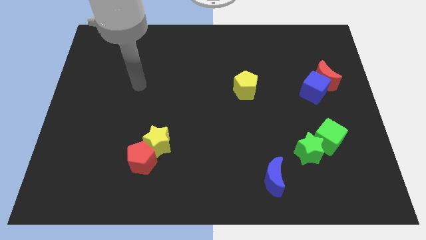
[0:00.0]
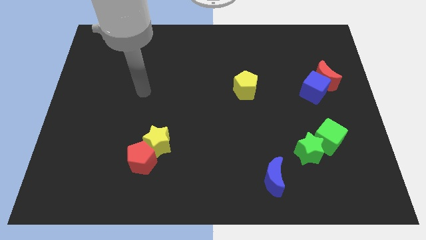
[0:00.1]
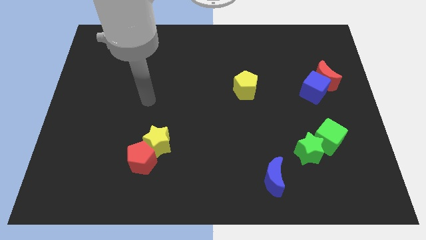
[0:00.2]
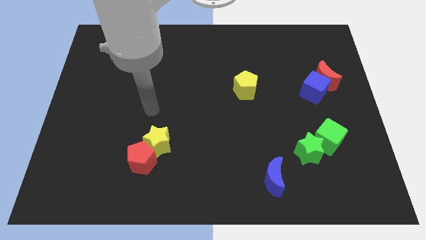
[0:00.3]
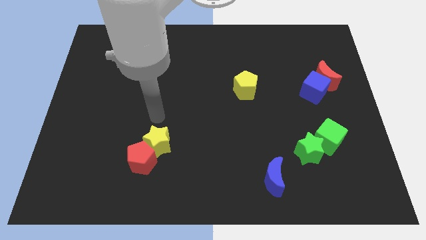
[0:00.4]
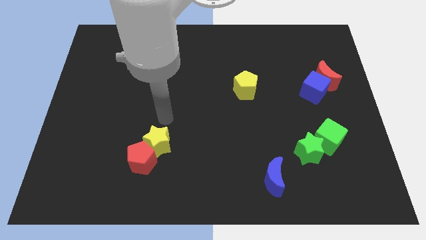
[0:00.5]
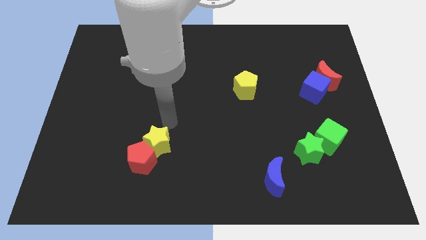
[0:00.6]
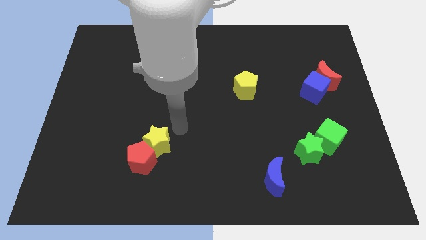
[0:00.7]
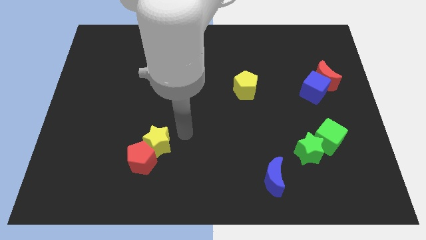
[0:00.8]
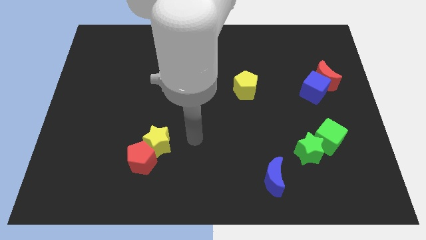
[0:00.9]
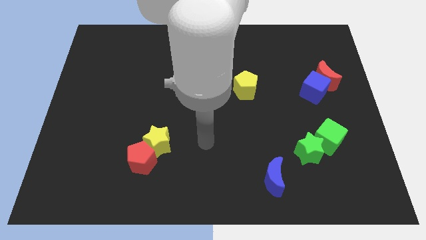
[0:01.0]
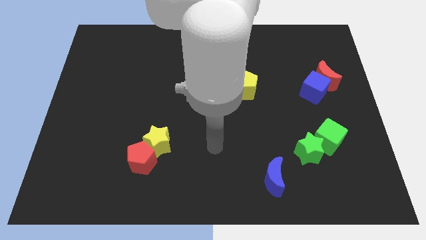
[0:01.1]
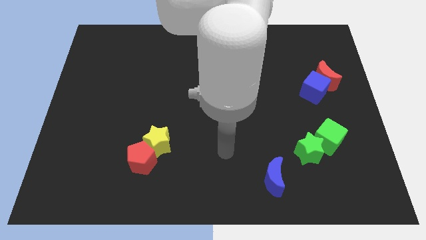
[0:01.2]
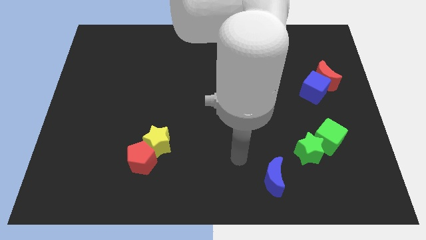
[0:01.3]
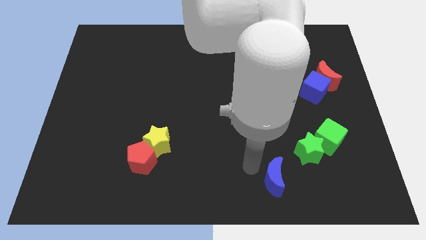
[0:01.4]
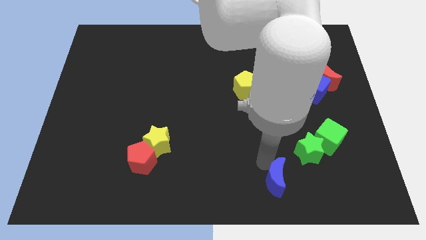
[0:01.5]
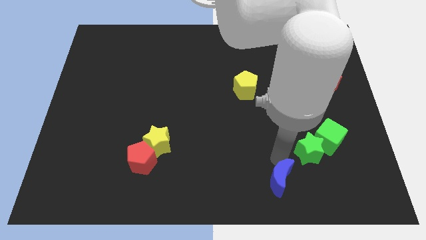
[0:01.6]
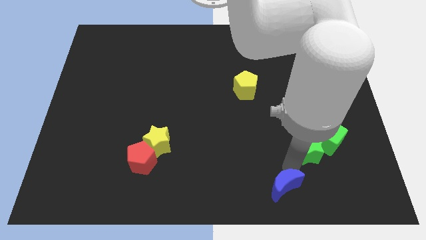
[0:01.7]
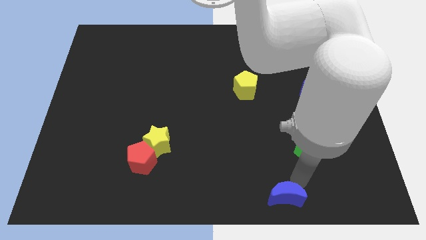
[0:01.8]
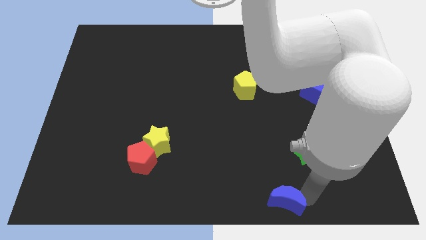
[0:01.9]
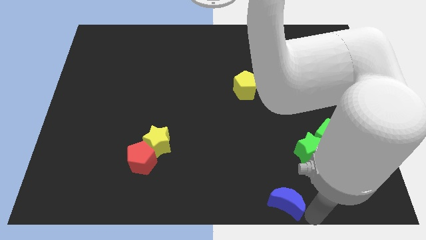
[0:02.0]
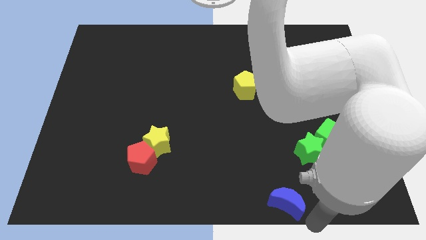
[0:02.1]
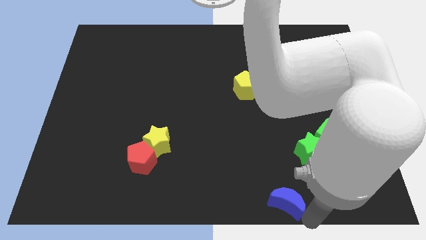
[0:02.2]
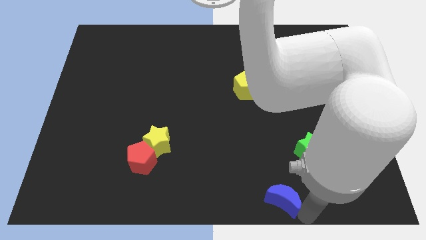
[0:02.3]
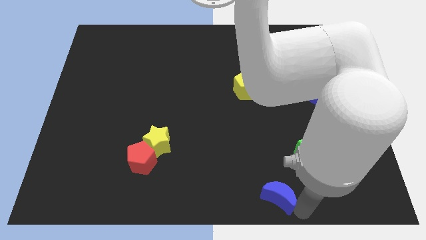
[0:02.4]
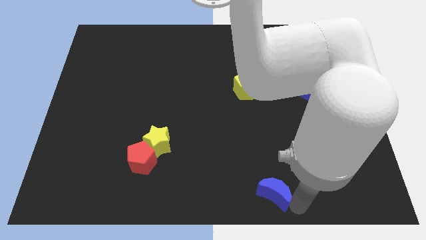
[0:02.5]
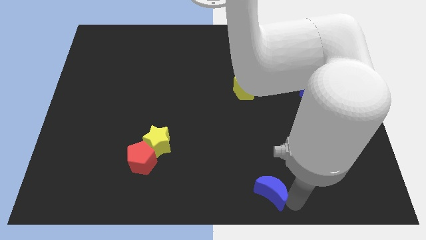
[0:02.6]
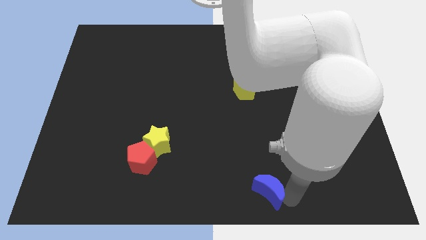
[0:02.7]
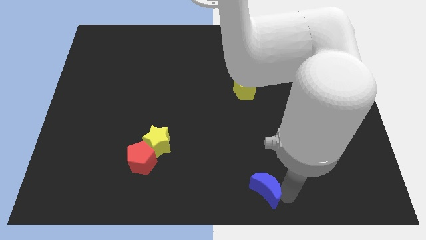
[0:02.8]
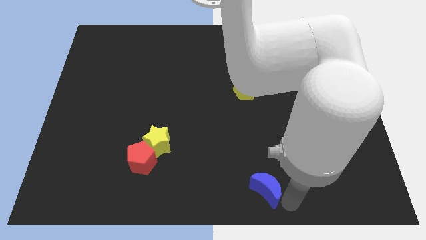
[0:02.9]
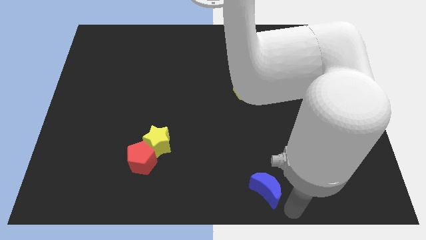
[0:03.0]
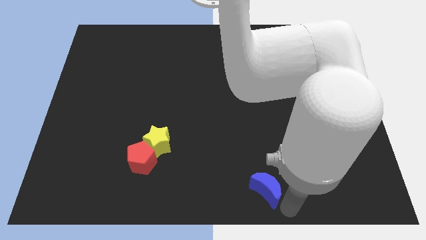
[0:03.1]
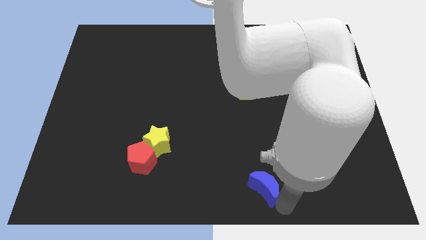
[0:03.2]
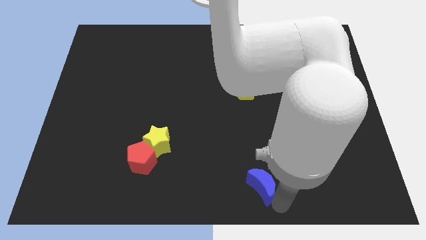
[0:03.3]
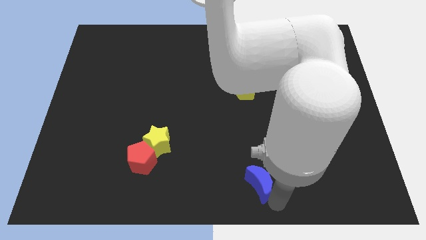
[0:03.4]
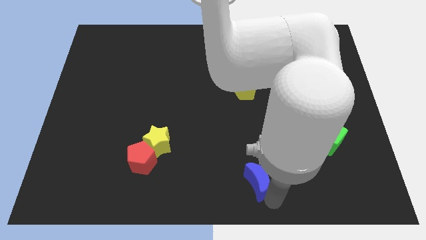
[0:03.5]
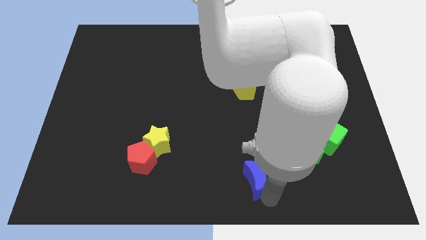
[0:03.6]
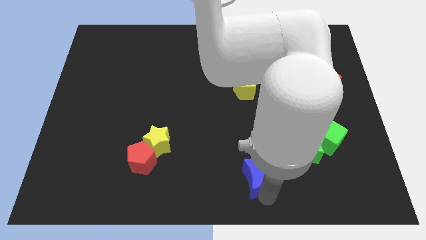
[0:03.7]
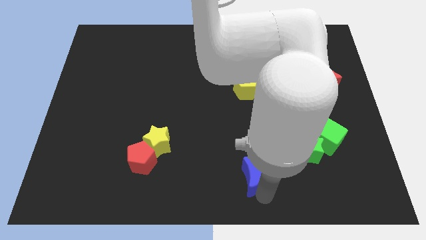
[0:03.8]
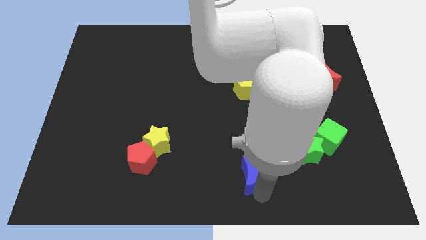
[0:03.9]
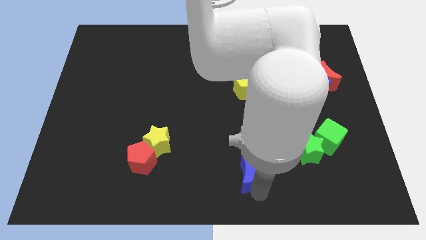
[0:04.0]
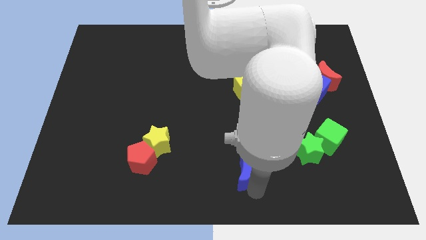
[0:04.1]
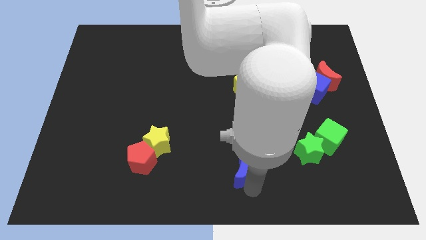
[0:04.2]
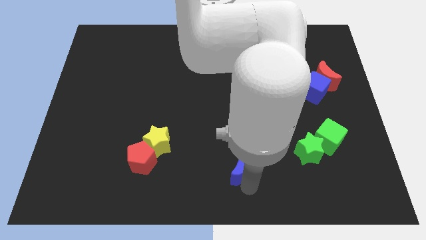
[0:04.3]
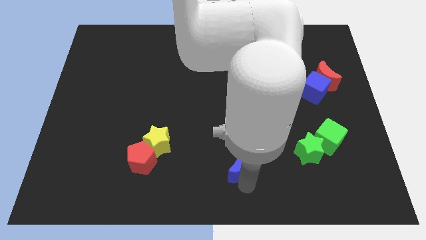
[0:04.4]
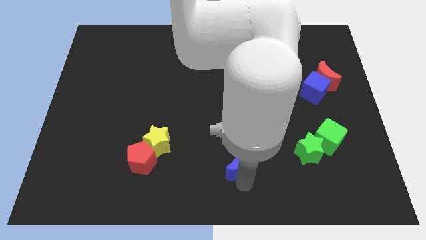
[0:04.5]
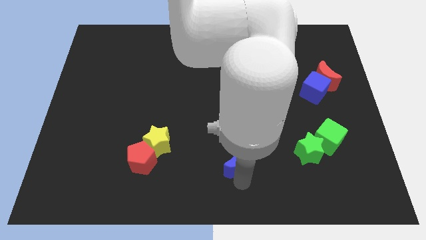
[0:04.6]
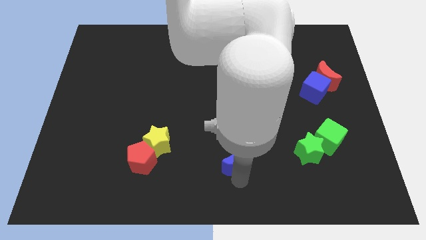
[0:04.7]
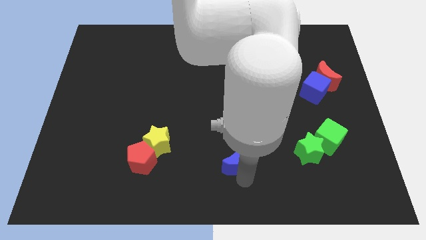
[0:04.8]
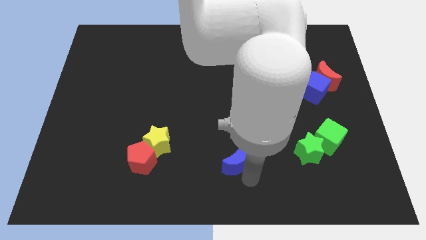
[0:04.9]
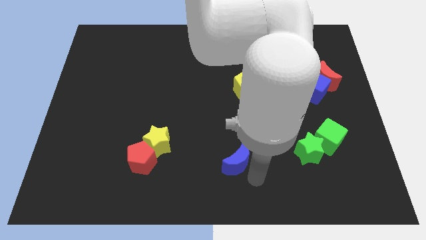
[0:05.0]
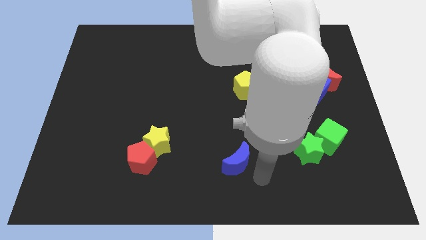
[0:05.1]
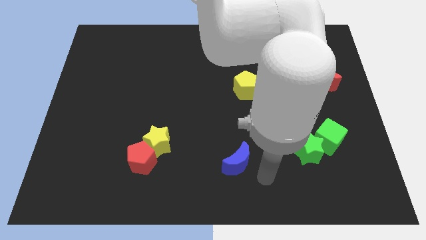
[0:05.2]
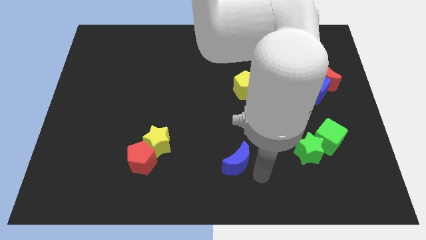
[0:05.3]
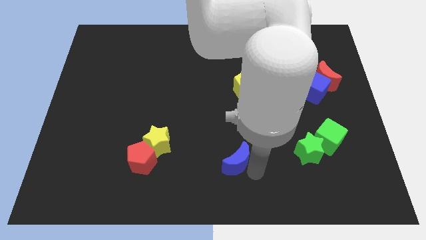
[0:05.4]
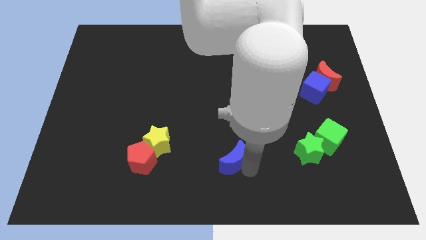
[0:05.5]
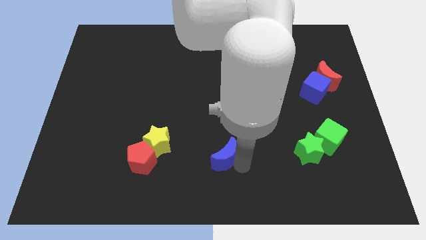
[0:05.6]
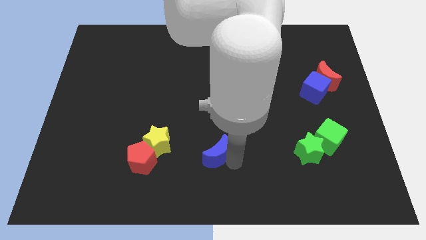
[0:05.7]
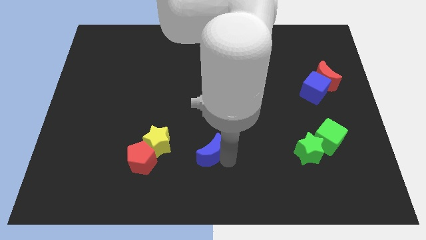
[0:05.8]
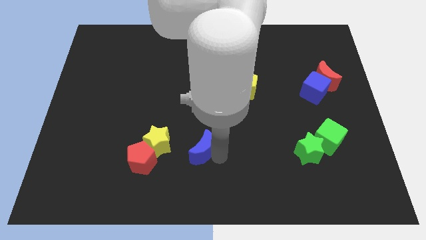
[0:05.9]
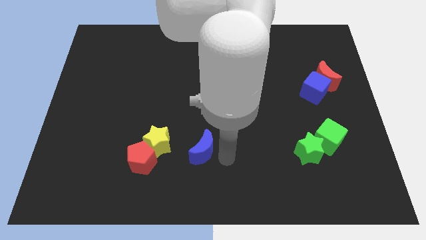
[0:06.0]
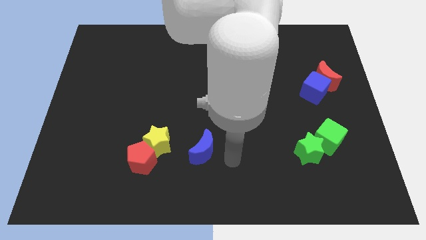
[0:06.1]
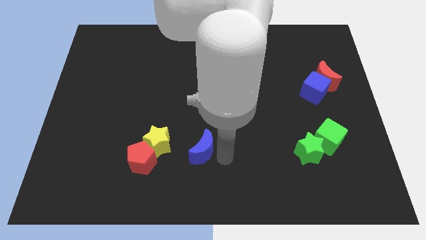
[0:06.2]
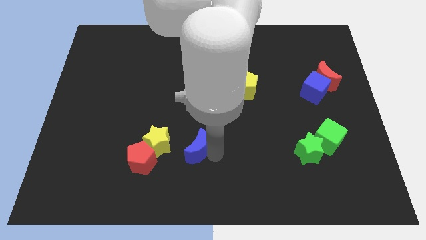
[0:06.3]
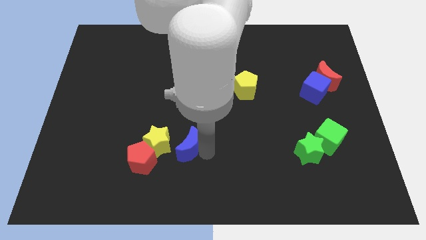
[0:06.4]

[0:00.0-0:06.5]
slide the blue moon to the top right of the red pentagon
